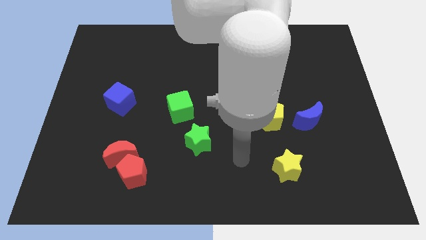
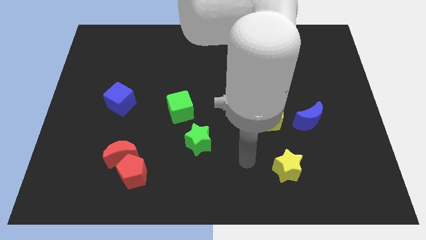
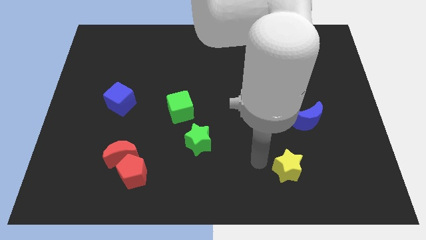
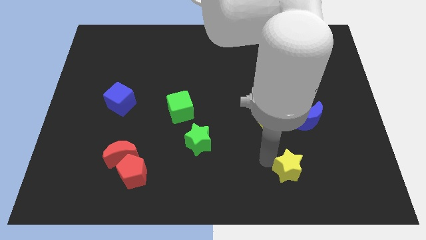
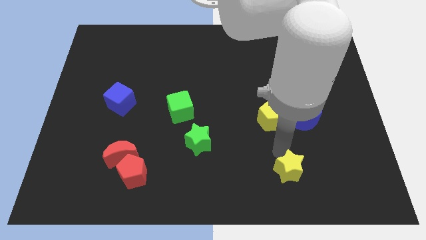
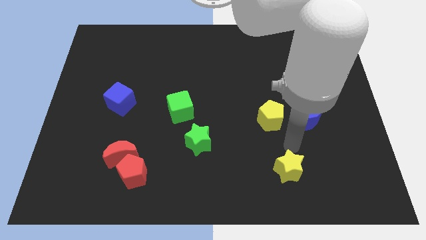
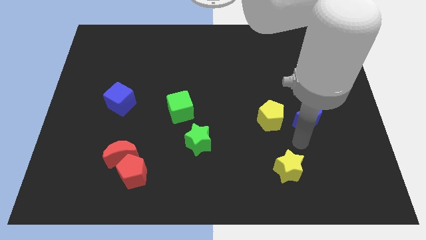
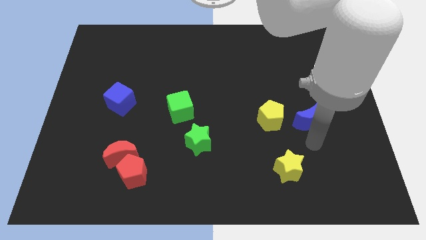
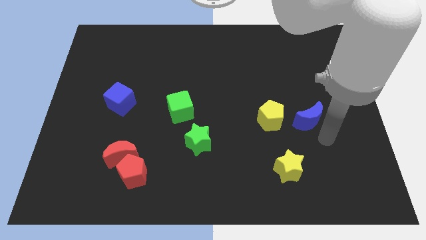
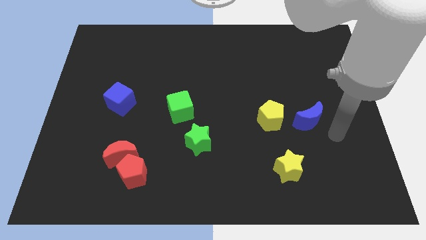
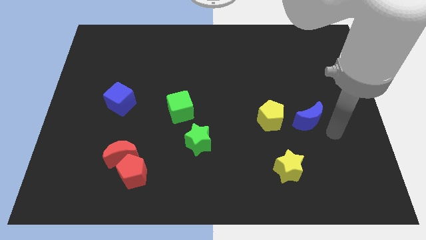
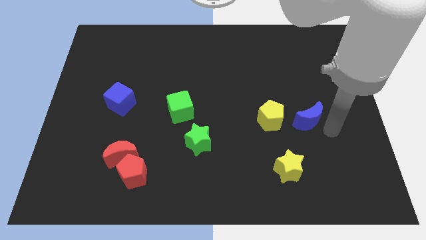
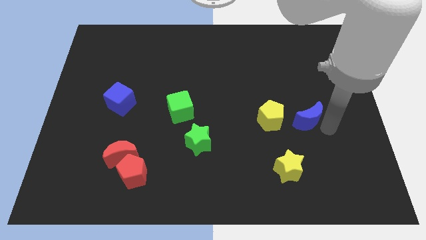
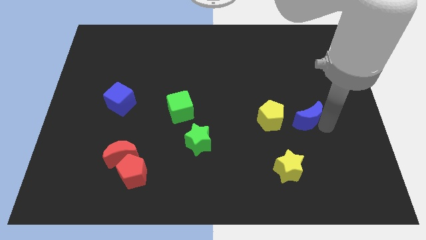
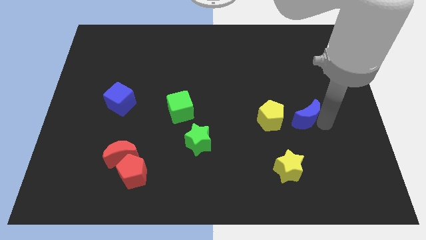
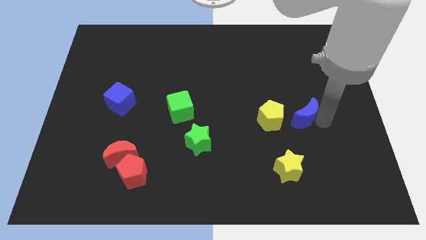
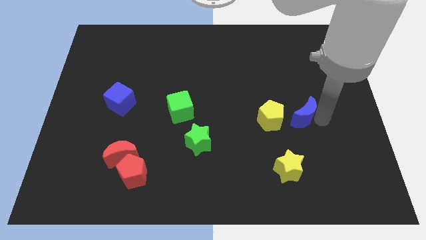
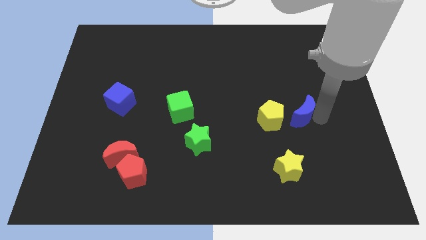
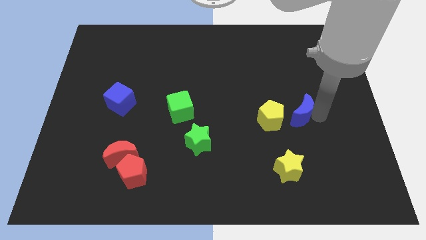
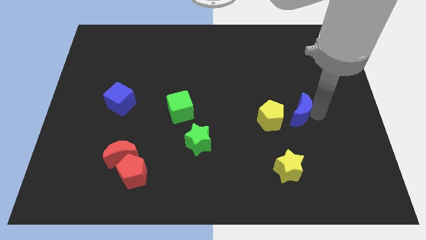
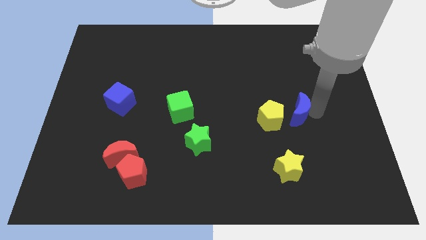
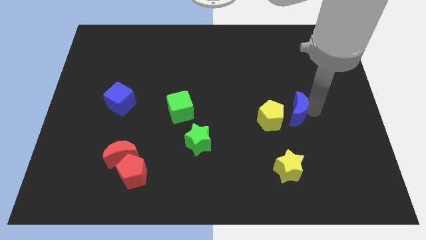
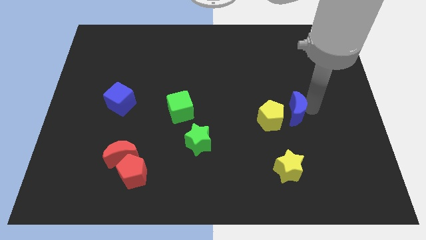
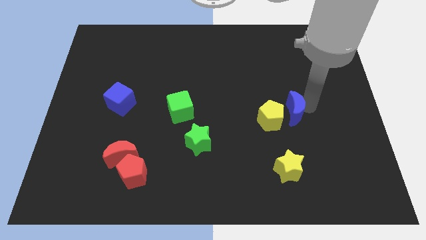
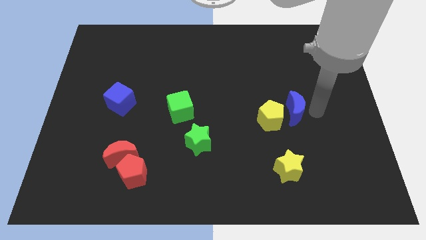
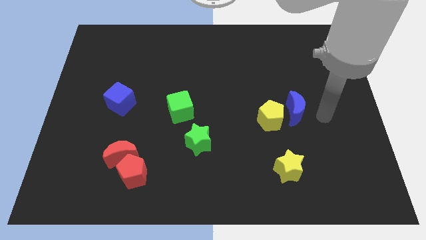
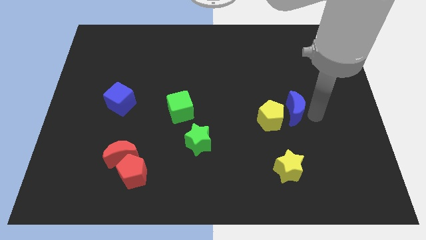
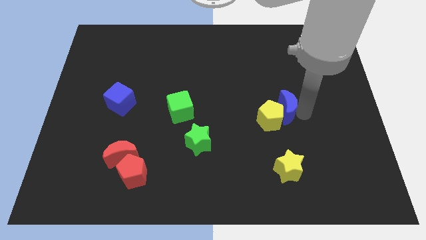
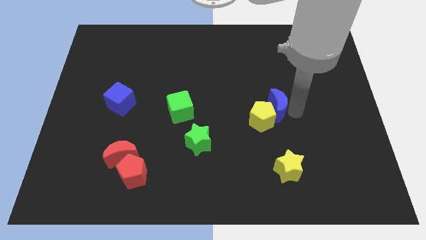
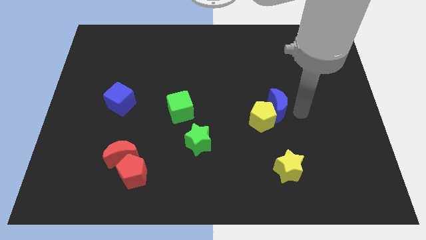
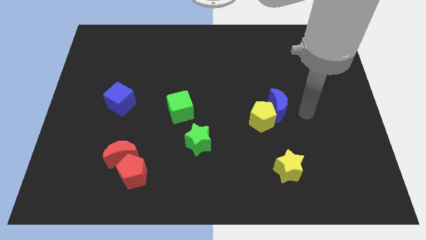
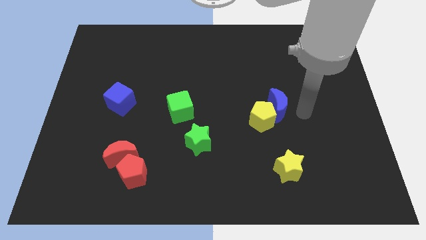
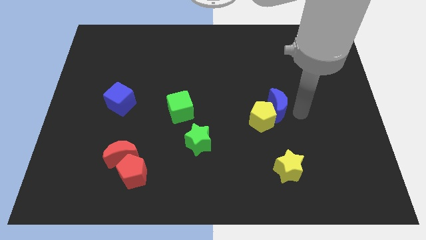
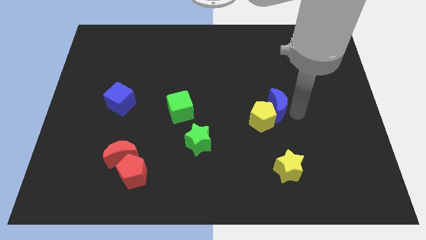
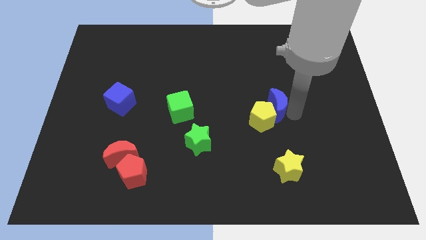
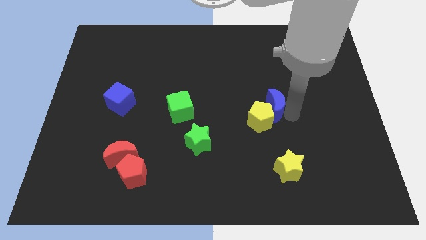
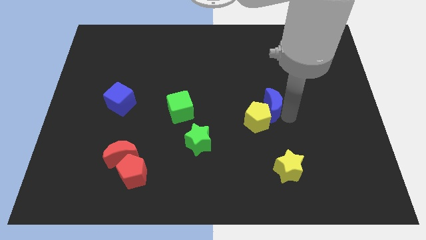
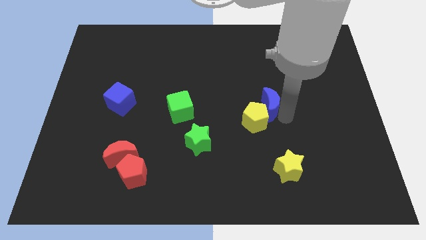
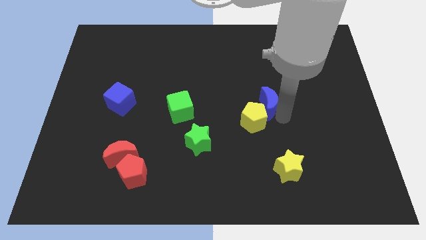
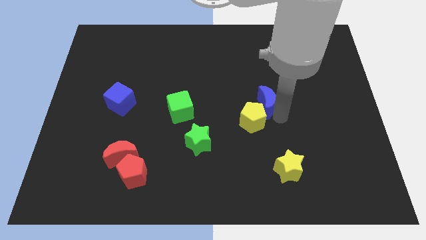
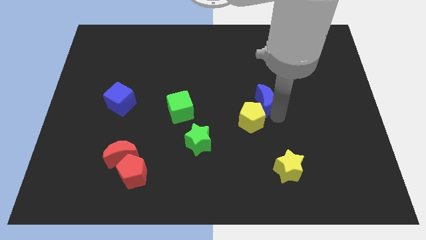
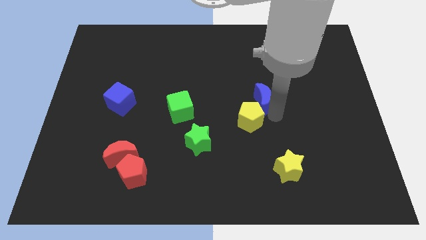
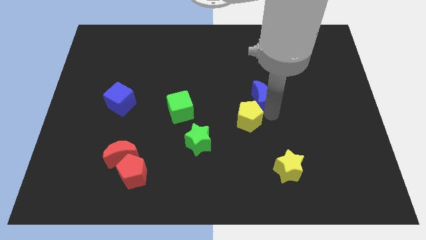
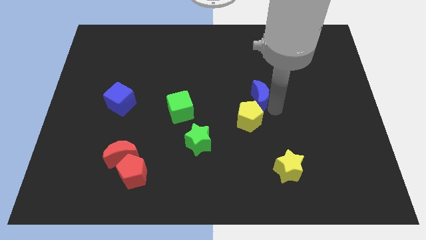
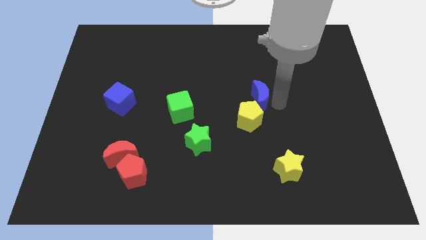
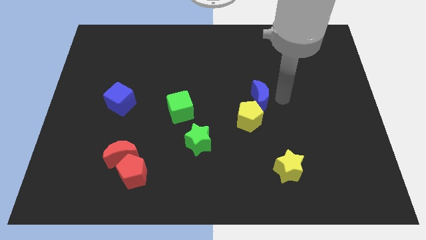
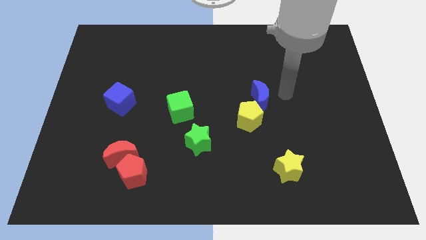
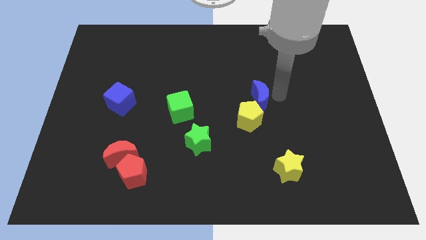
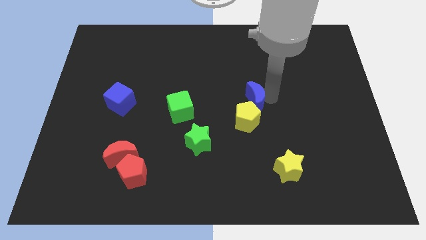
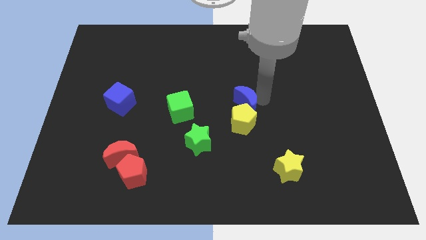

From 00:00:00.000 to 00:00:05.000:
put the blue moon to the right of the green cube

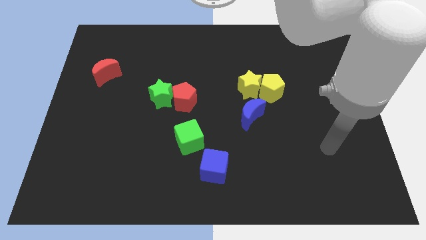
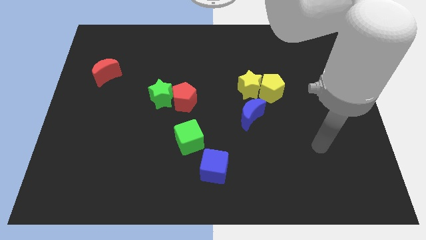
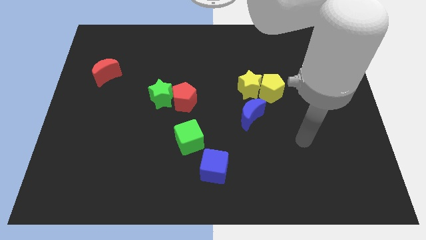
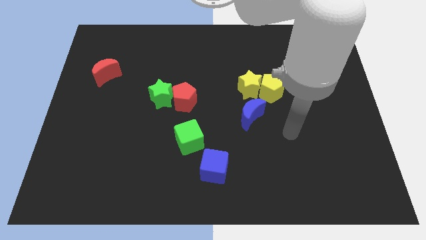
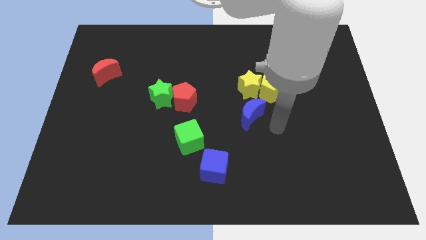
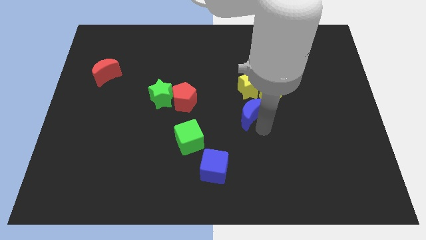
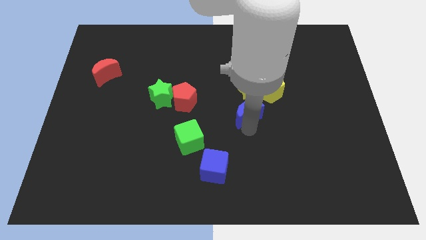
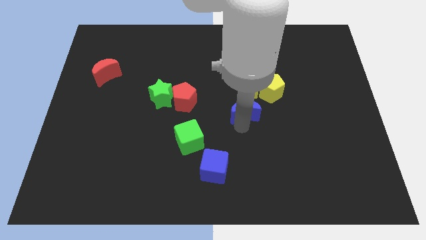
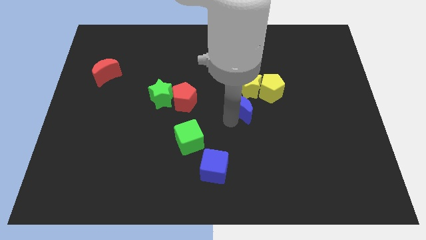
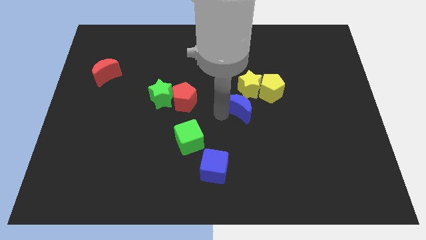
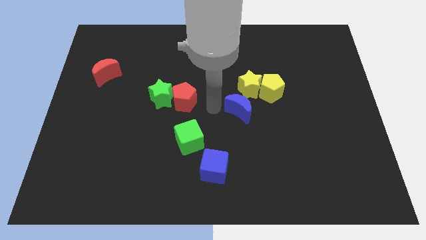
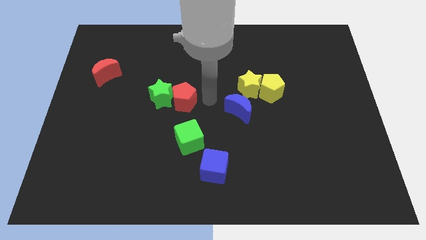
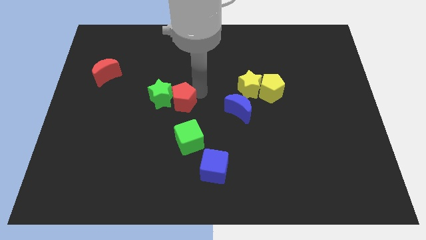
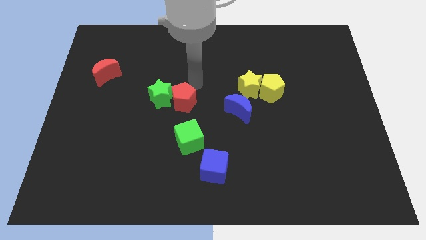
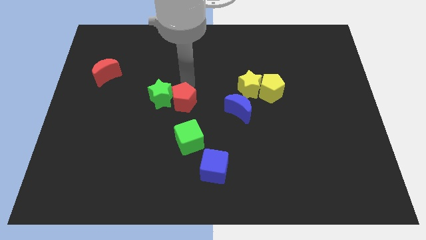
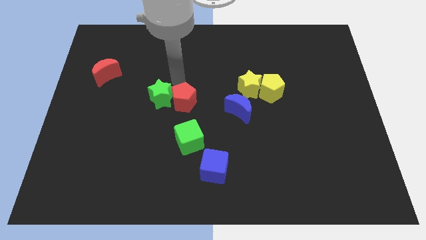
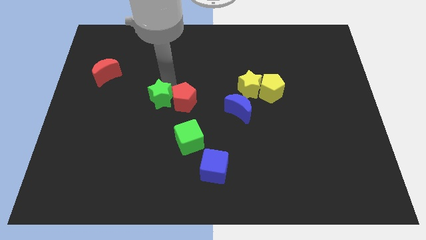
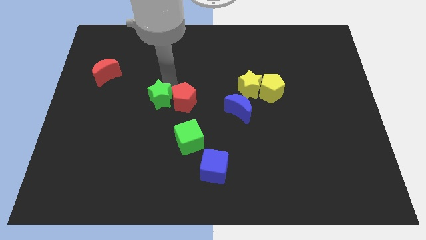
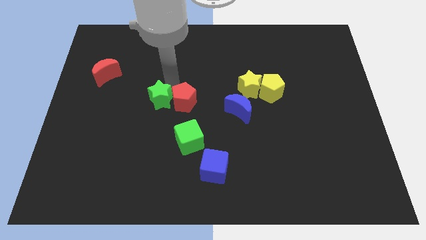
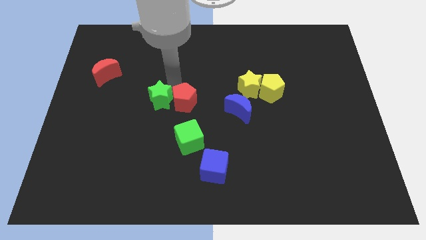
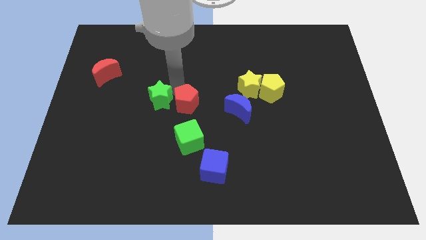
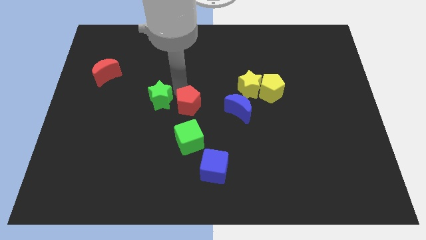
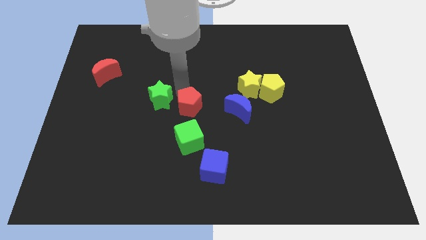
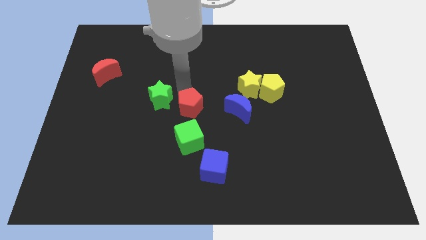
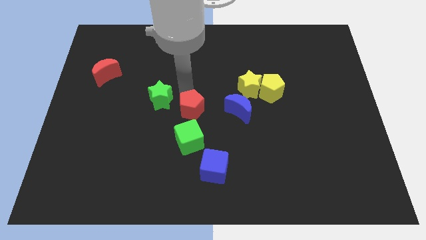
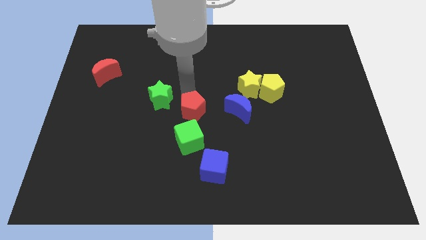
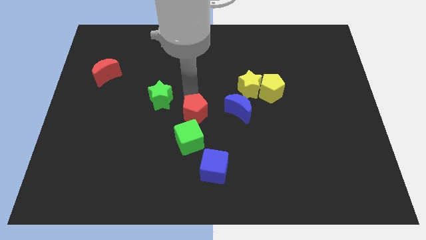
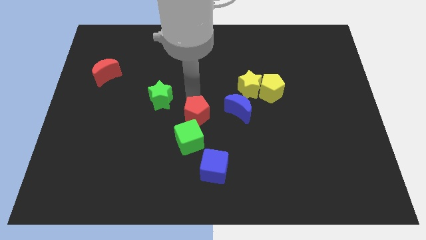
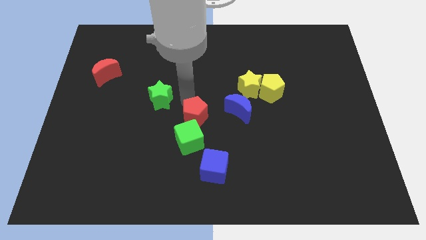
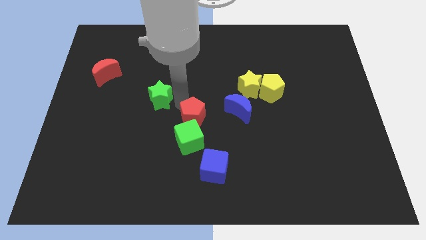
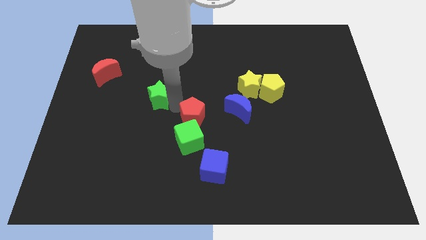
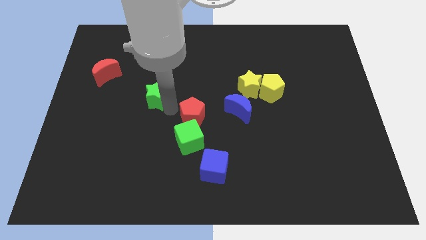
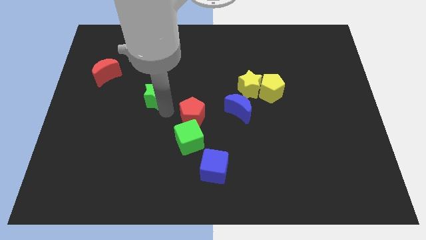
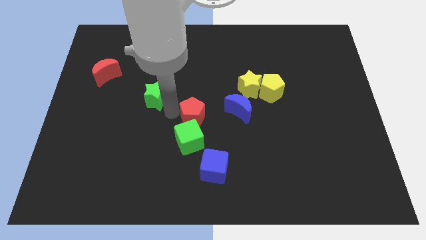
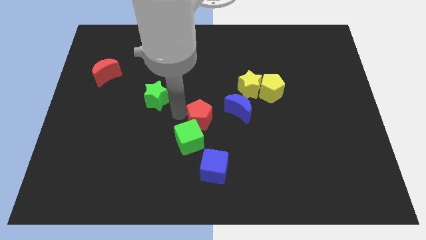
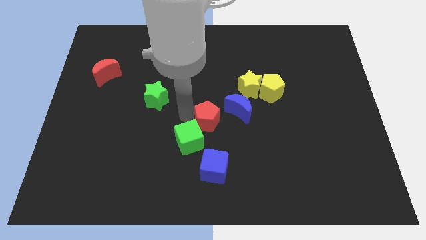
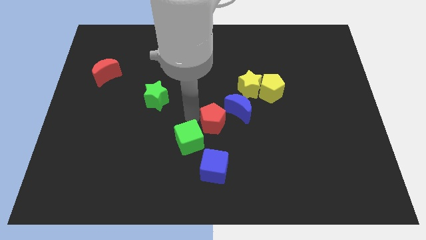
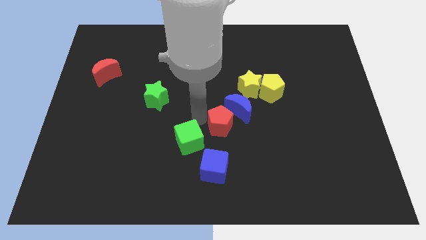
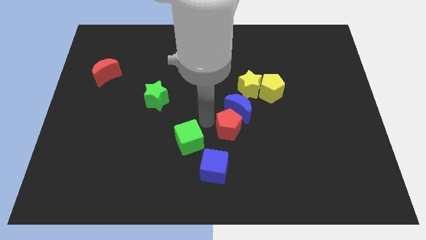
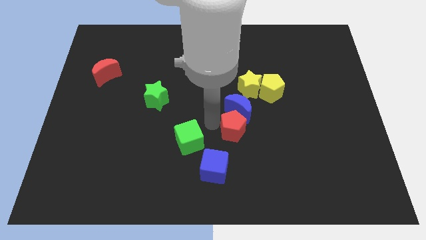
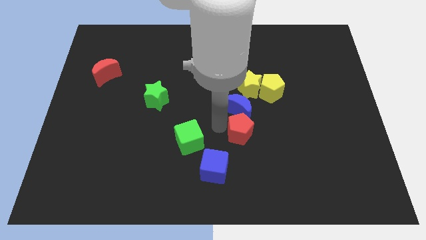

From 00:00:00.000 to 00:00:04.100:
put the red pentagon to the bottom right side of the blue moon
